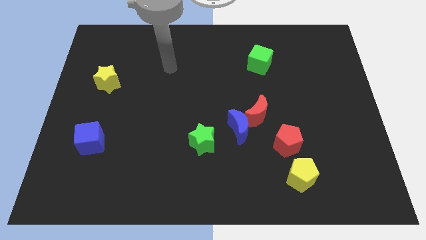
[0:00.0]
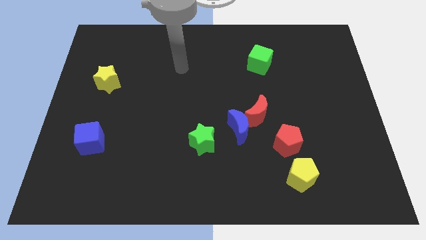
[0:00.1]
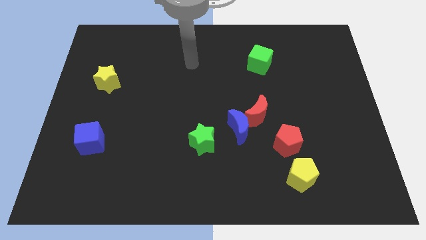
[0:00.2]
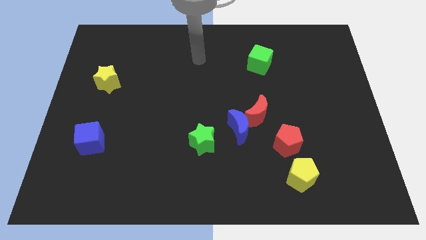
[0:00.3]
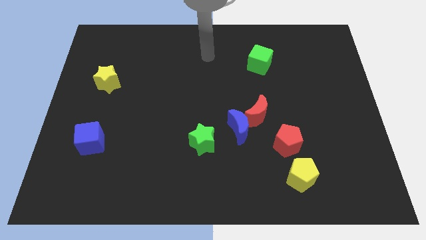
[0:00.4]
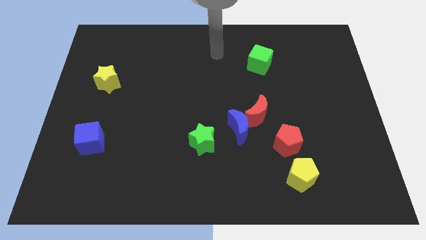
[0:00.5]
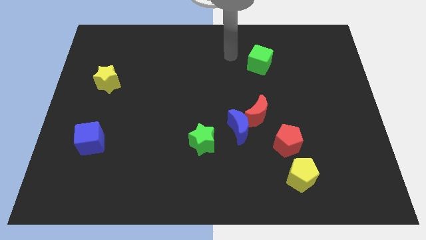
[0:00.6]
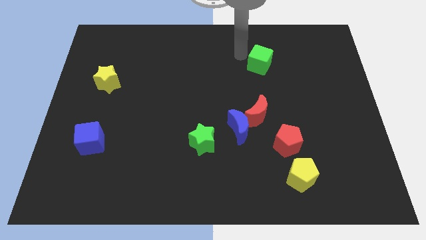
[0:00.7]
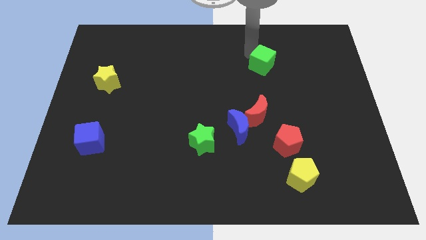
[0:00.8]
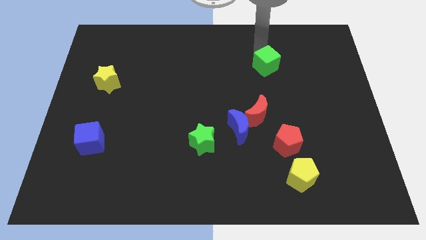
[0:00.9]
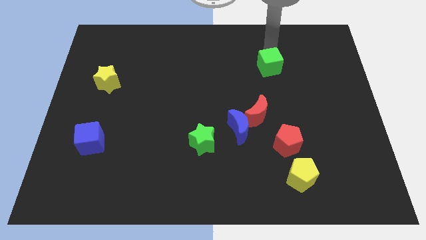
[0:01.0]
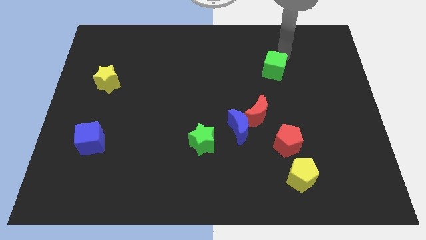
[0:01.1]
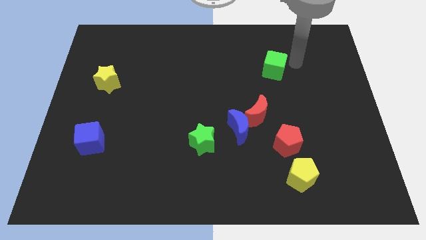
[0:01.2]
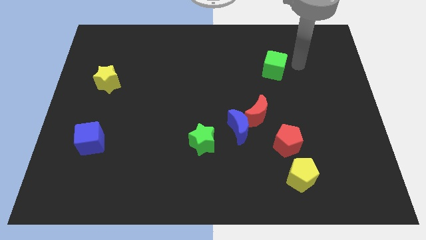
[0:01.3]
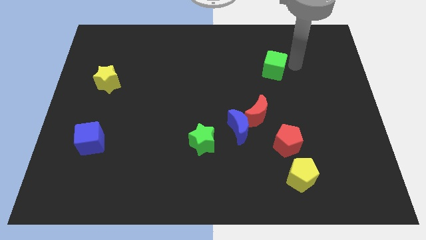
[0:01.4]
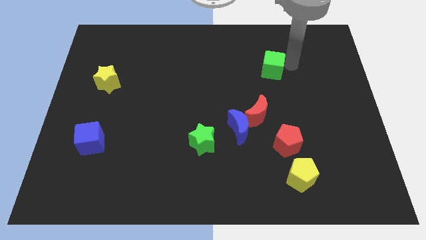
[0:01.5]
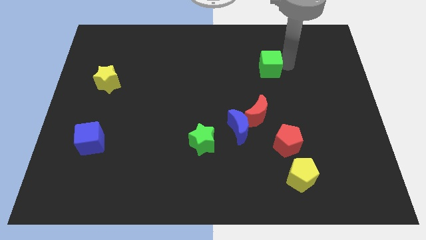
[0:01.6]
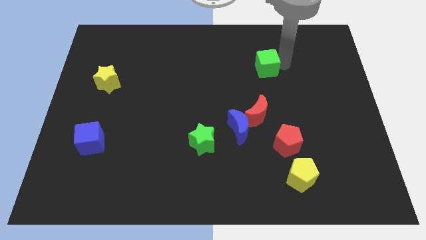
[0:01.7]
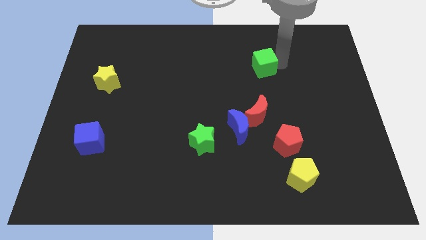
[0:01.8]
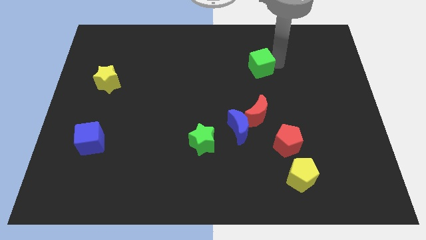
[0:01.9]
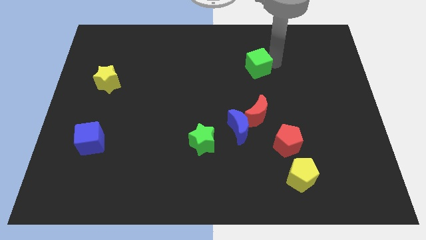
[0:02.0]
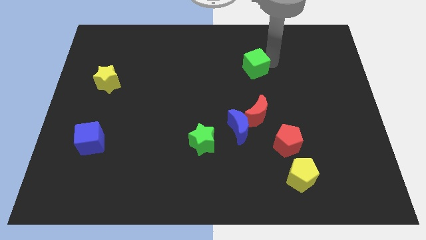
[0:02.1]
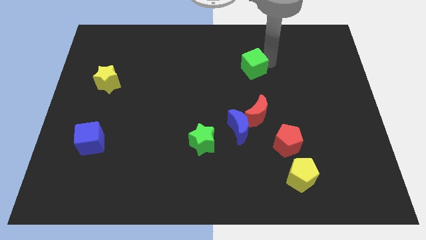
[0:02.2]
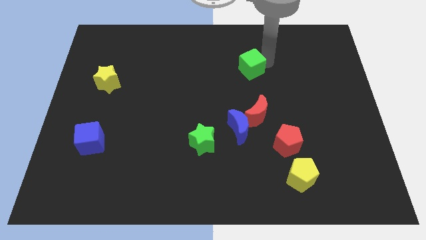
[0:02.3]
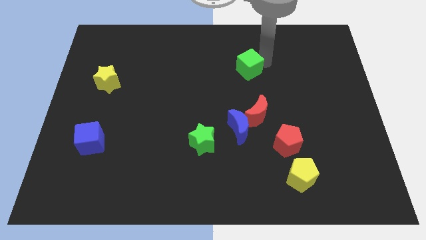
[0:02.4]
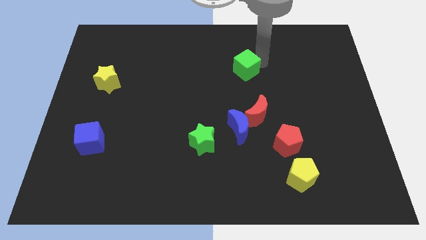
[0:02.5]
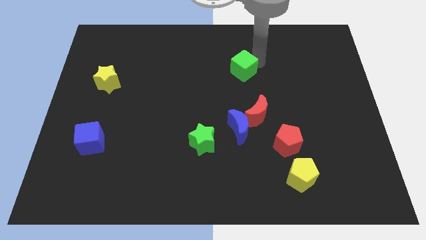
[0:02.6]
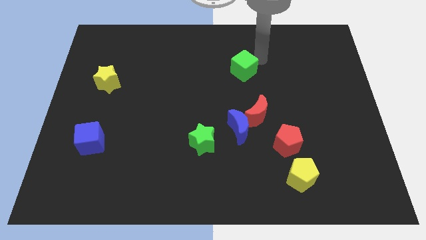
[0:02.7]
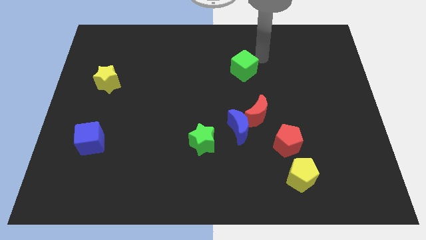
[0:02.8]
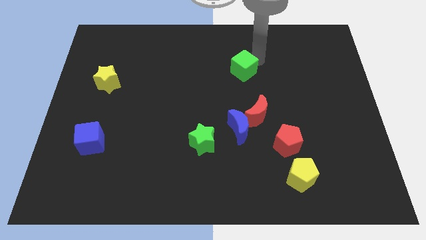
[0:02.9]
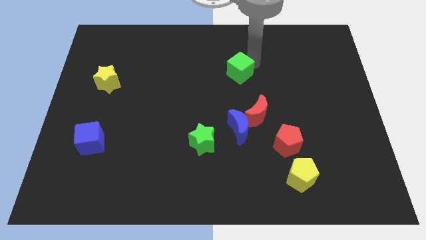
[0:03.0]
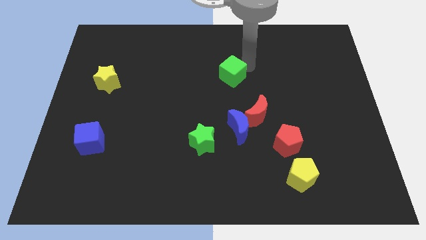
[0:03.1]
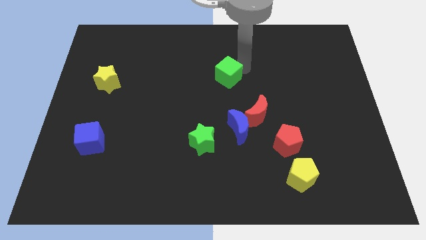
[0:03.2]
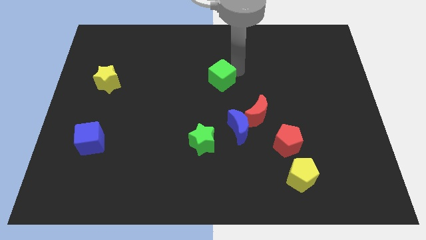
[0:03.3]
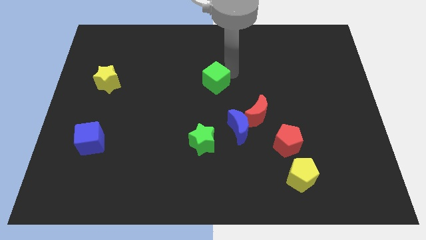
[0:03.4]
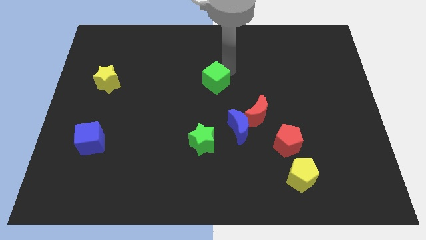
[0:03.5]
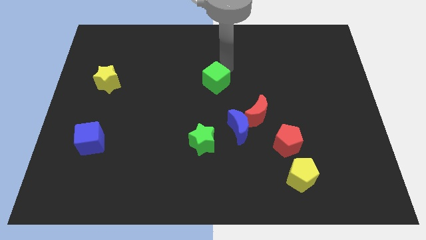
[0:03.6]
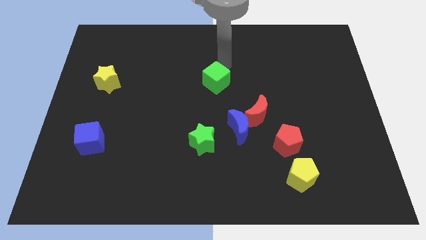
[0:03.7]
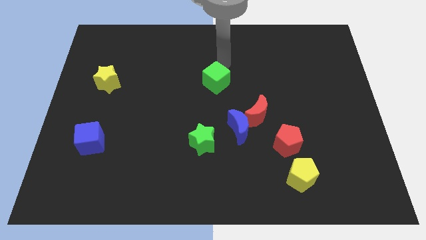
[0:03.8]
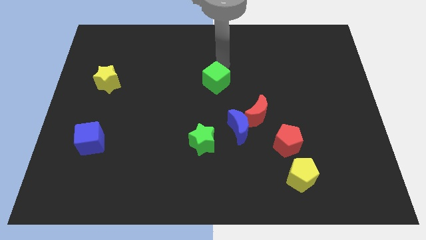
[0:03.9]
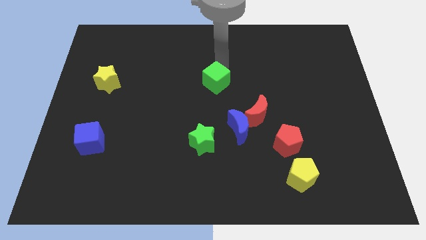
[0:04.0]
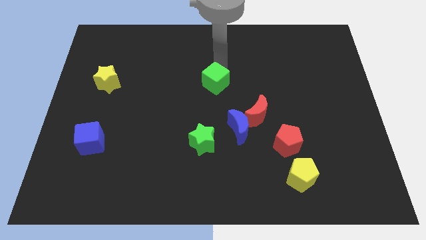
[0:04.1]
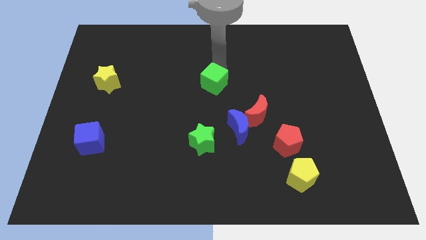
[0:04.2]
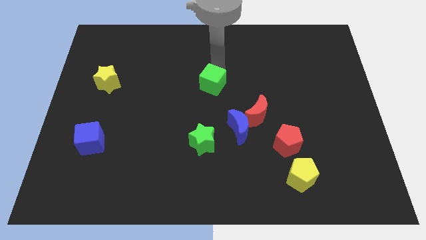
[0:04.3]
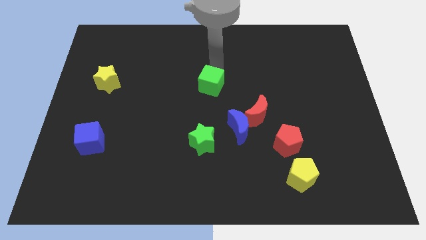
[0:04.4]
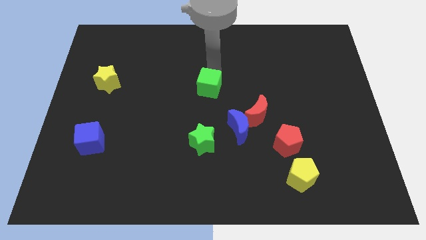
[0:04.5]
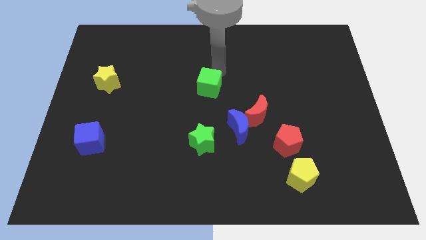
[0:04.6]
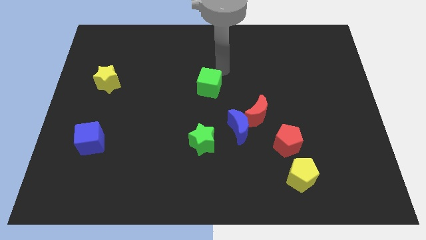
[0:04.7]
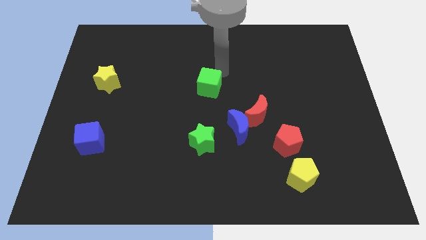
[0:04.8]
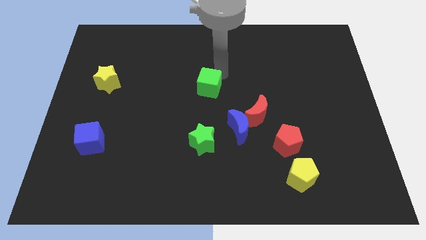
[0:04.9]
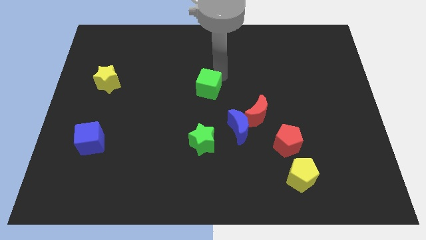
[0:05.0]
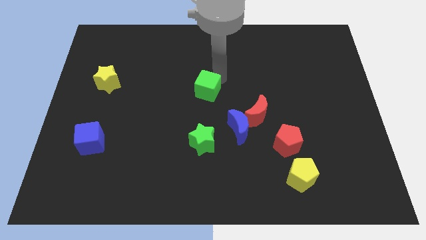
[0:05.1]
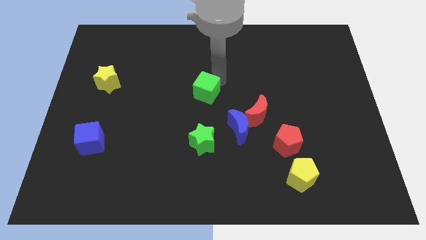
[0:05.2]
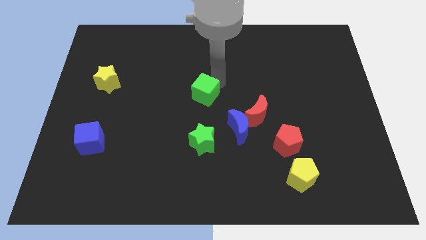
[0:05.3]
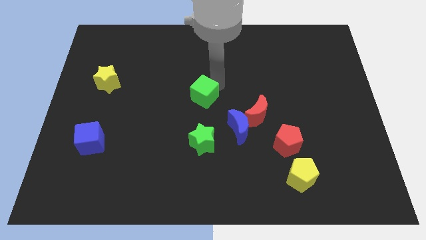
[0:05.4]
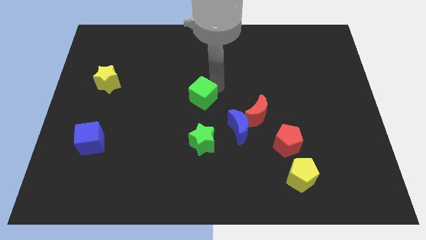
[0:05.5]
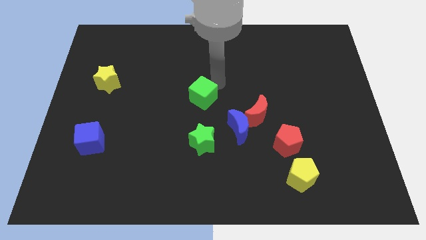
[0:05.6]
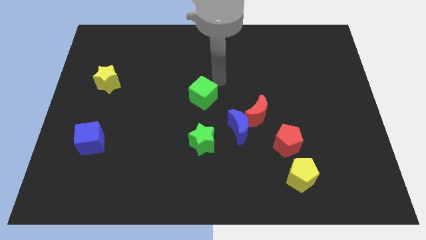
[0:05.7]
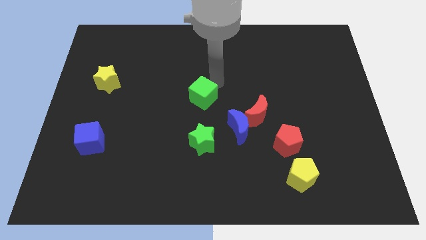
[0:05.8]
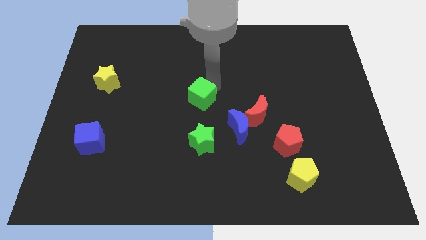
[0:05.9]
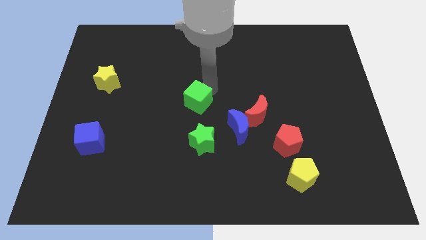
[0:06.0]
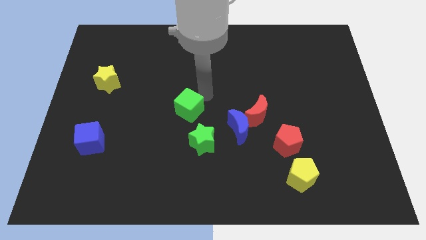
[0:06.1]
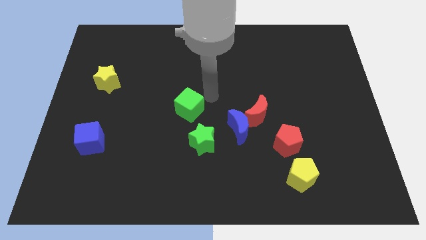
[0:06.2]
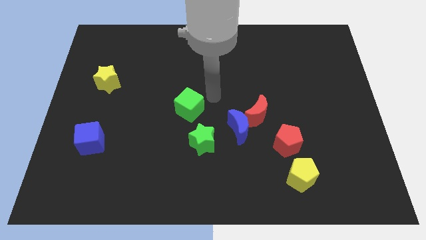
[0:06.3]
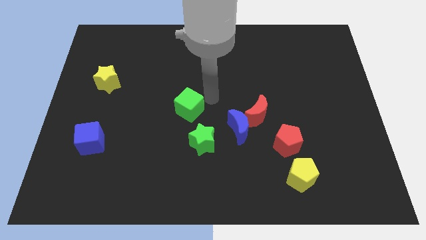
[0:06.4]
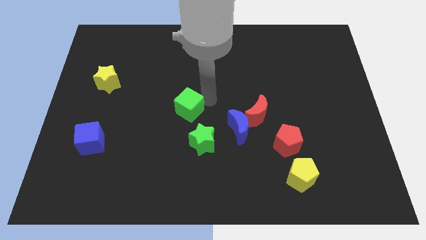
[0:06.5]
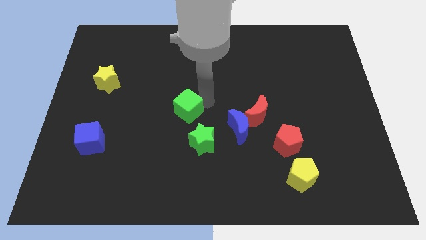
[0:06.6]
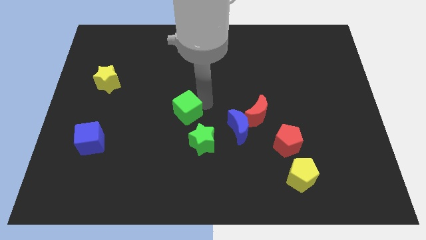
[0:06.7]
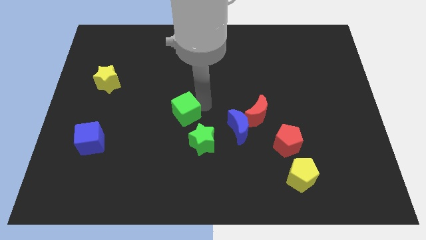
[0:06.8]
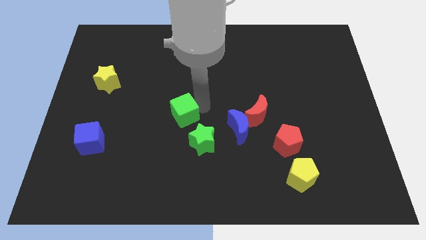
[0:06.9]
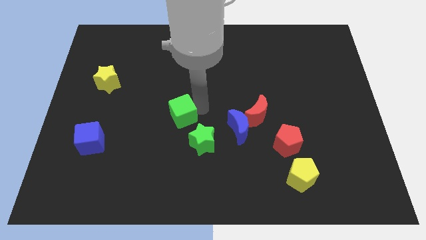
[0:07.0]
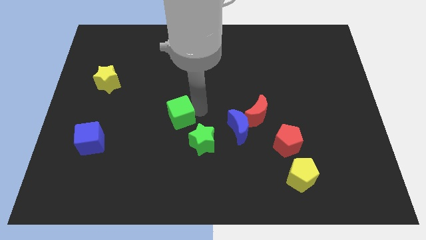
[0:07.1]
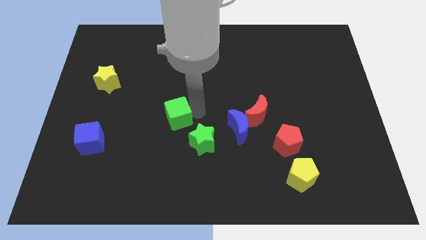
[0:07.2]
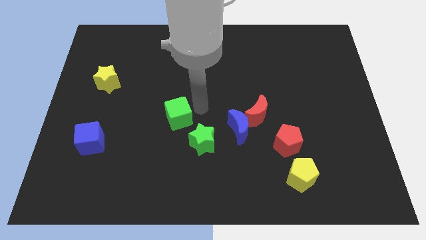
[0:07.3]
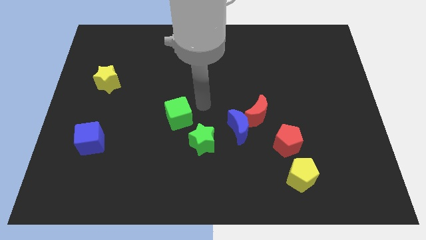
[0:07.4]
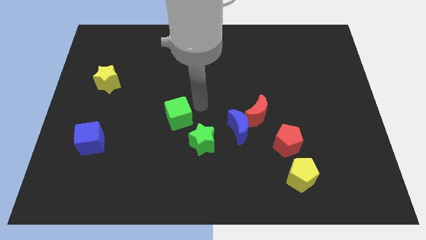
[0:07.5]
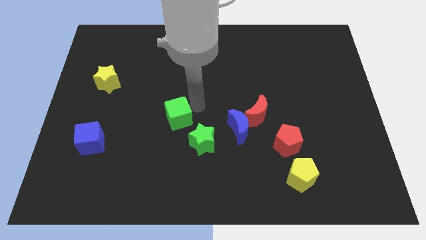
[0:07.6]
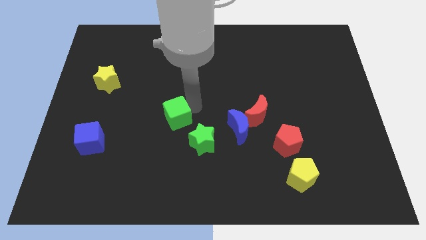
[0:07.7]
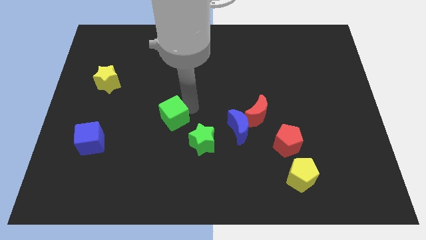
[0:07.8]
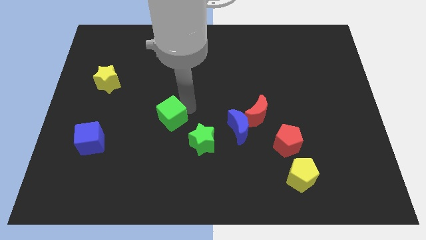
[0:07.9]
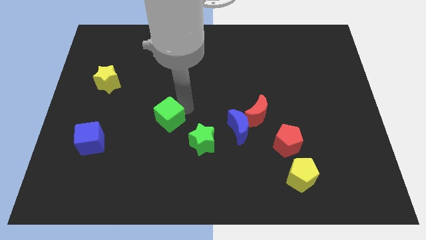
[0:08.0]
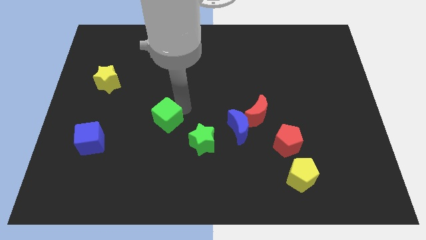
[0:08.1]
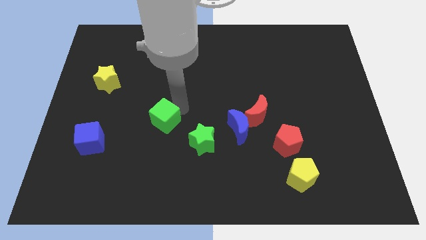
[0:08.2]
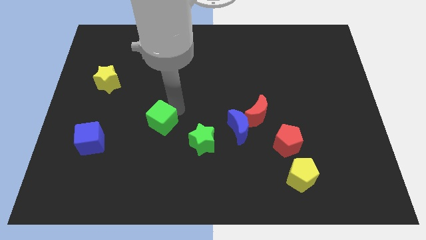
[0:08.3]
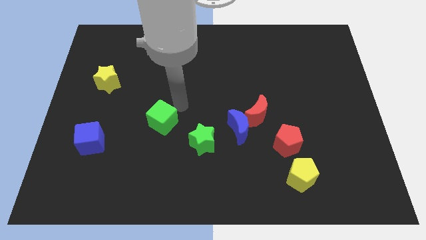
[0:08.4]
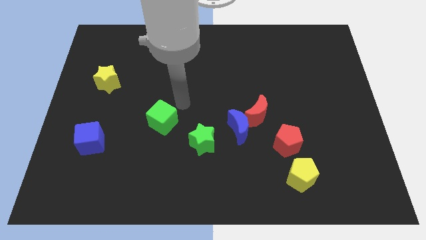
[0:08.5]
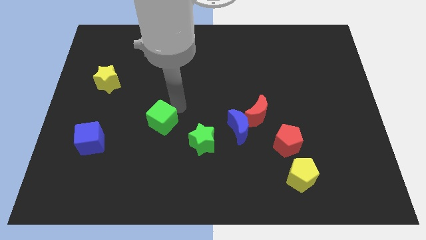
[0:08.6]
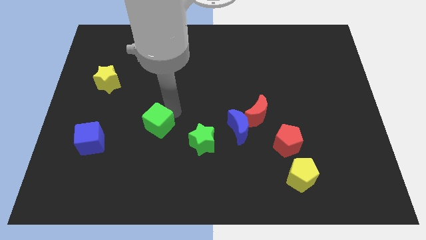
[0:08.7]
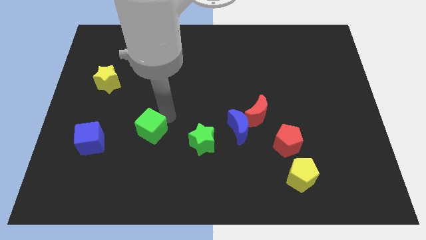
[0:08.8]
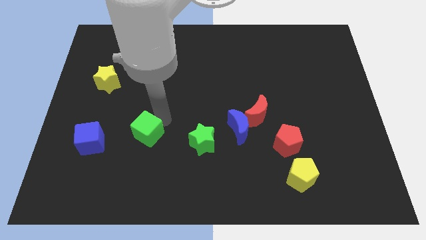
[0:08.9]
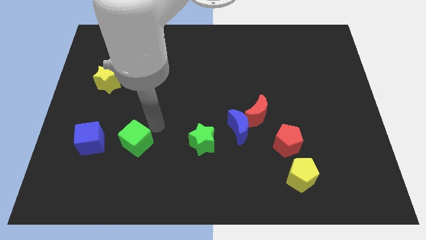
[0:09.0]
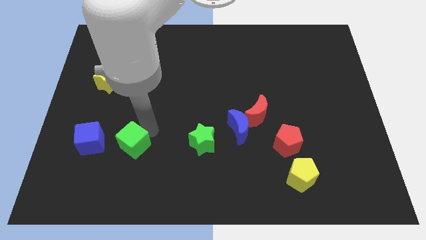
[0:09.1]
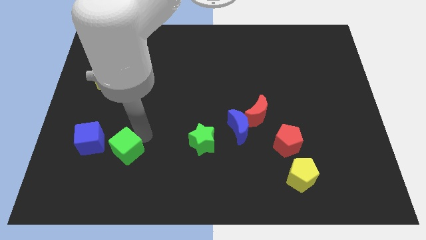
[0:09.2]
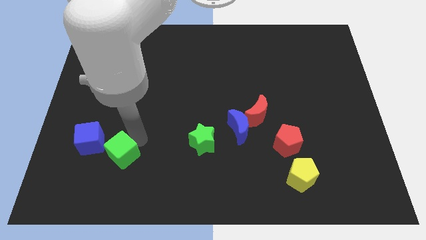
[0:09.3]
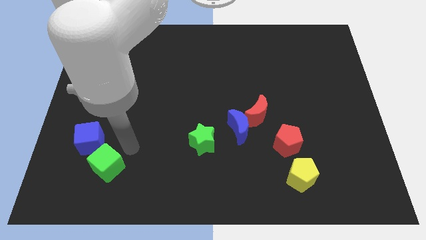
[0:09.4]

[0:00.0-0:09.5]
push the green cube below the blue cube
